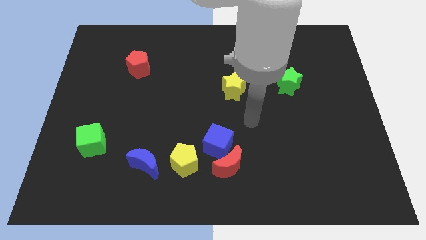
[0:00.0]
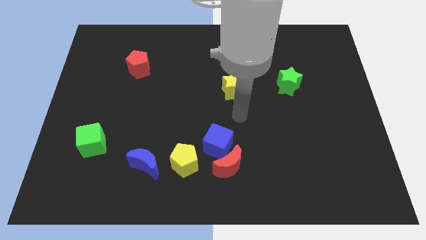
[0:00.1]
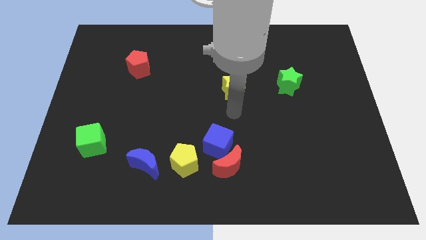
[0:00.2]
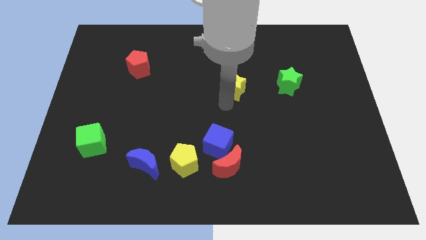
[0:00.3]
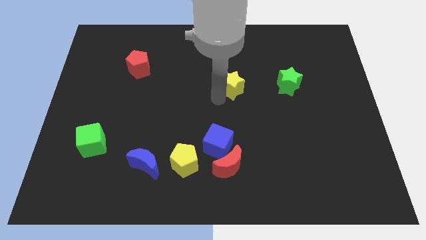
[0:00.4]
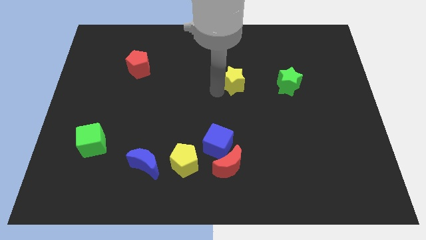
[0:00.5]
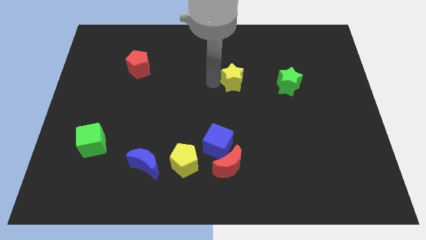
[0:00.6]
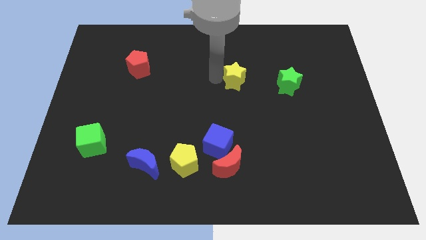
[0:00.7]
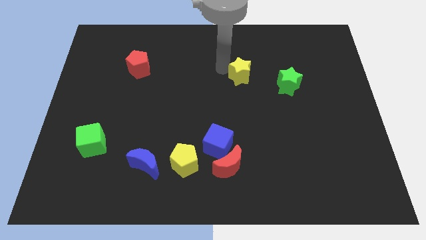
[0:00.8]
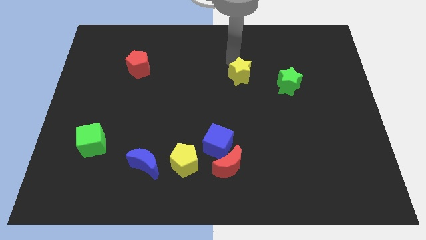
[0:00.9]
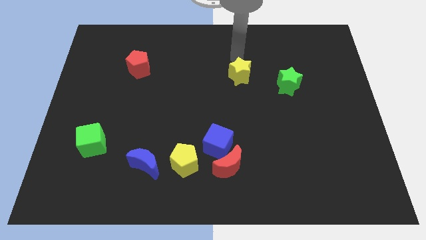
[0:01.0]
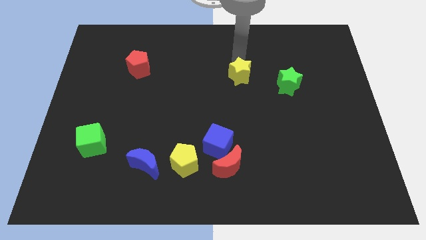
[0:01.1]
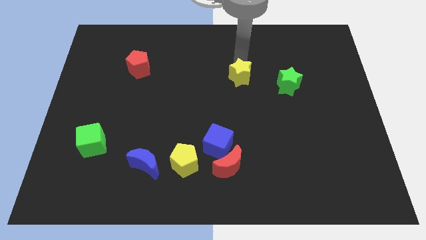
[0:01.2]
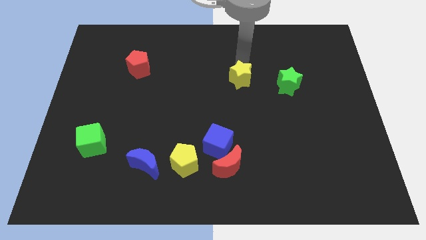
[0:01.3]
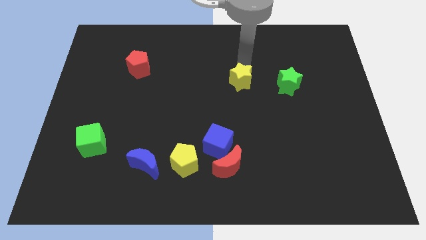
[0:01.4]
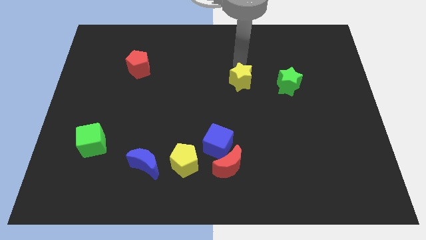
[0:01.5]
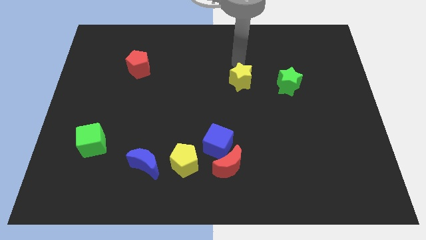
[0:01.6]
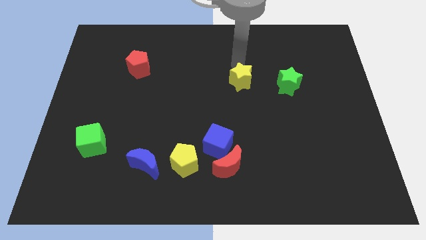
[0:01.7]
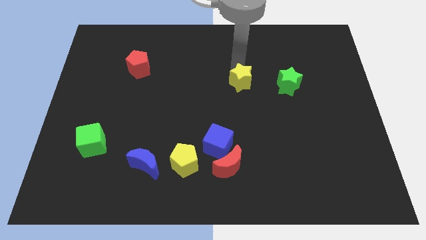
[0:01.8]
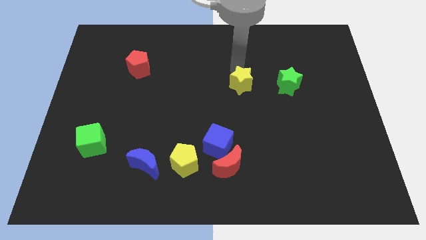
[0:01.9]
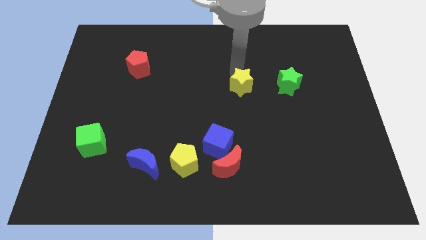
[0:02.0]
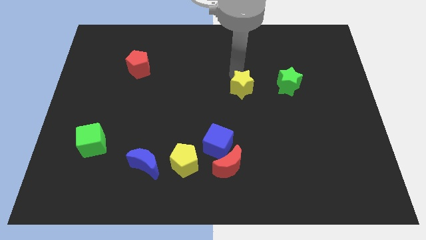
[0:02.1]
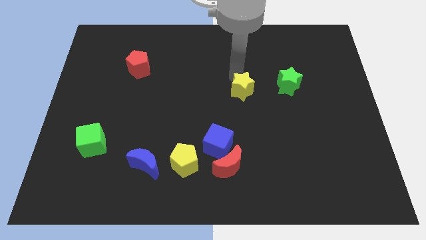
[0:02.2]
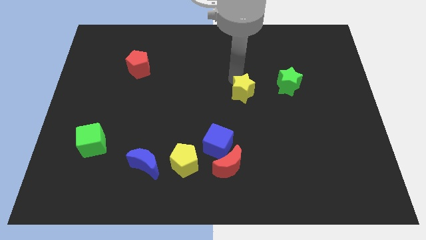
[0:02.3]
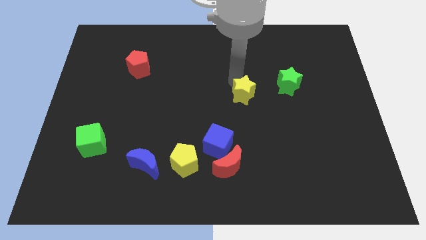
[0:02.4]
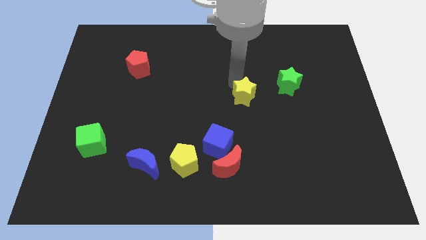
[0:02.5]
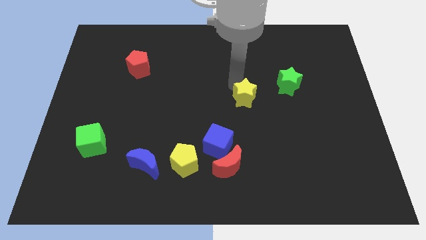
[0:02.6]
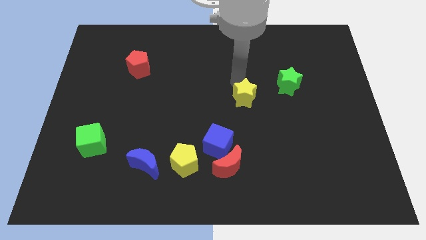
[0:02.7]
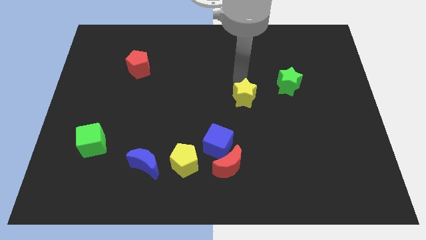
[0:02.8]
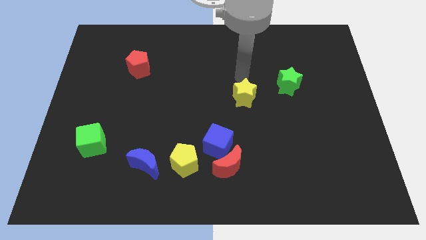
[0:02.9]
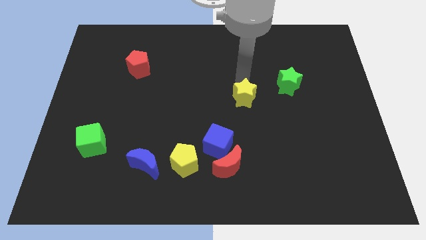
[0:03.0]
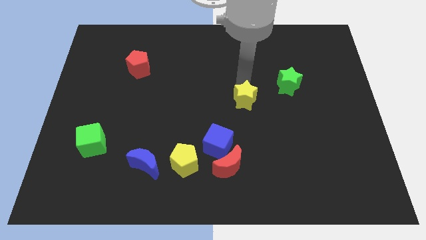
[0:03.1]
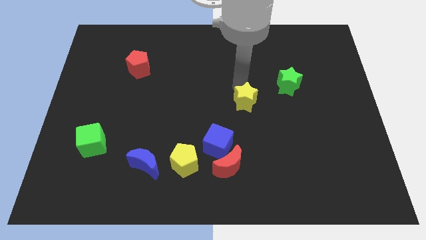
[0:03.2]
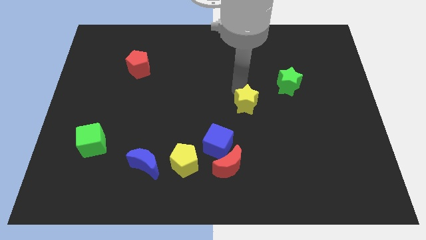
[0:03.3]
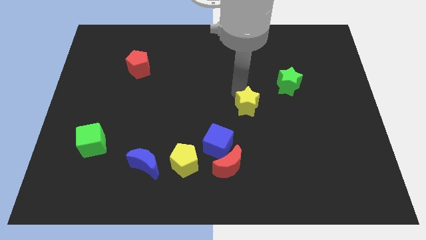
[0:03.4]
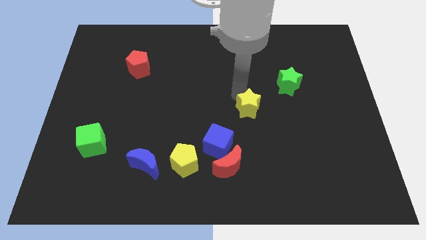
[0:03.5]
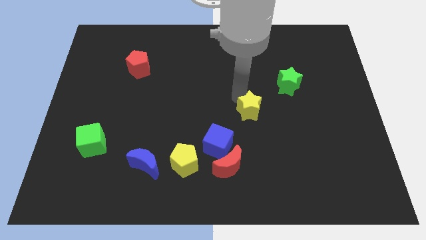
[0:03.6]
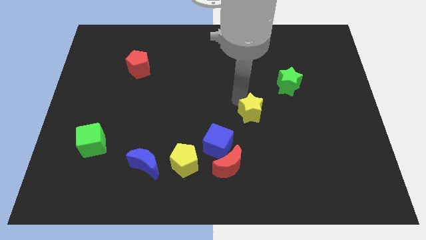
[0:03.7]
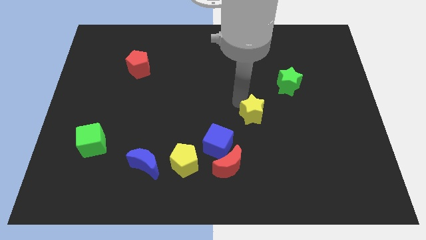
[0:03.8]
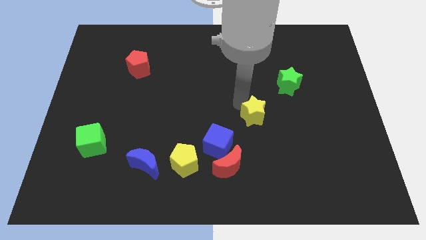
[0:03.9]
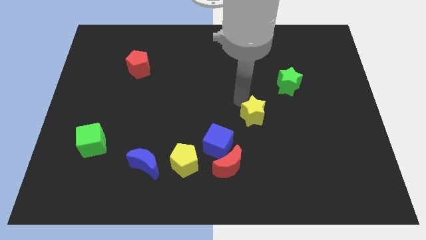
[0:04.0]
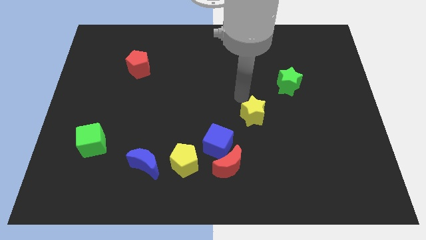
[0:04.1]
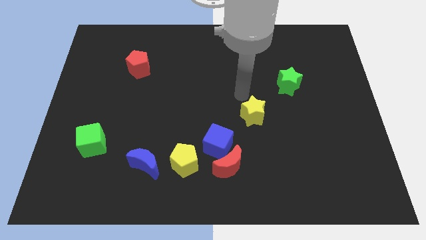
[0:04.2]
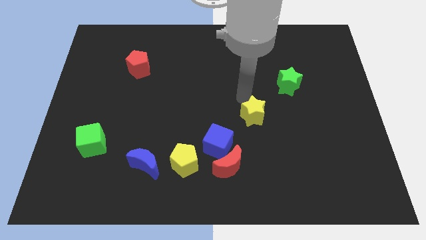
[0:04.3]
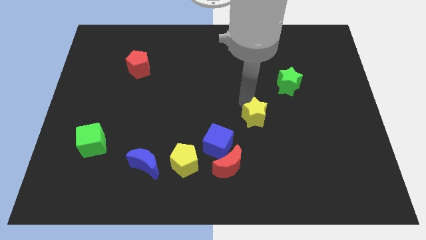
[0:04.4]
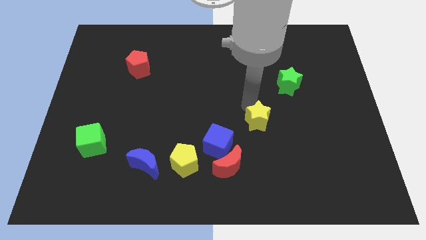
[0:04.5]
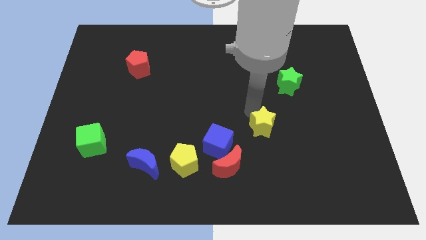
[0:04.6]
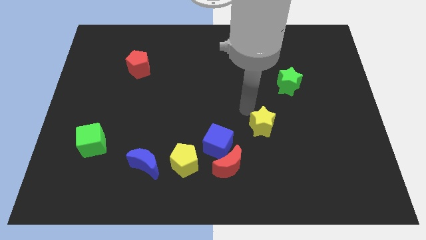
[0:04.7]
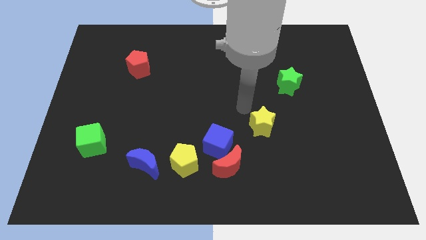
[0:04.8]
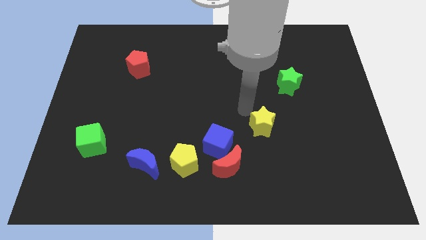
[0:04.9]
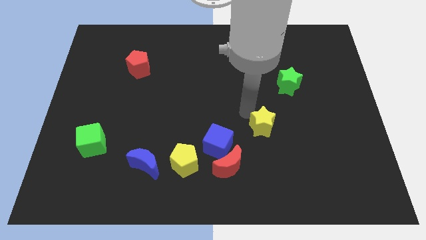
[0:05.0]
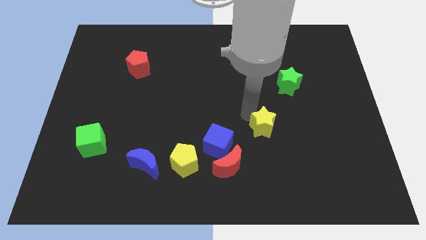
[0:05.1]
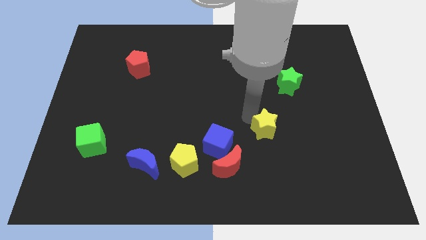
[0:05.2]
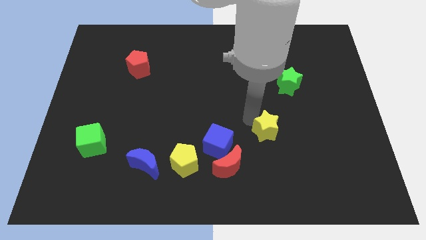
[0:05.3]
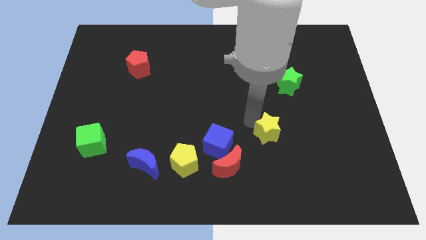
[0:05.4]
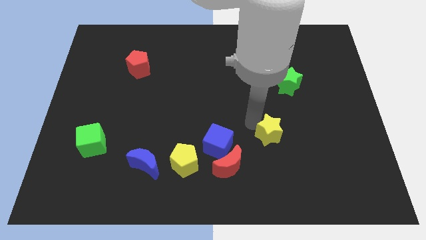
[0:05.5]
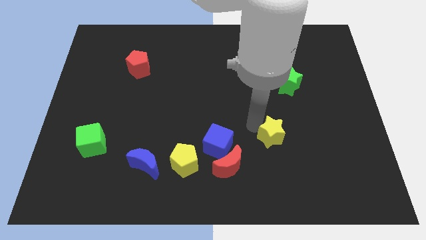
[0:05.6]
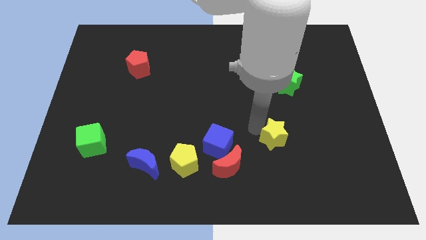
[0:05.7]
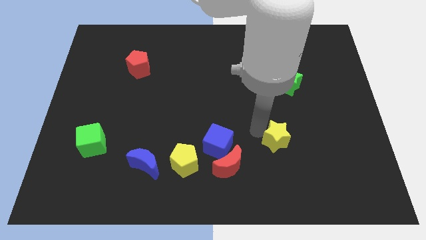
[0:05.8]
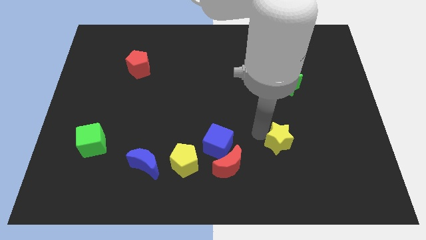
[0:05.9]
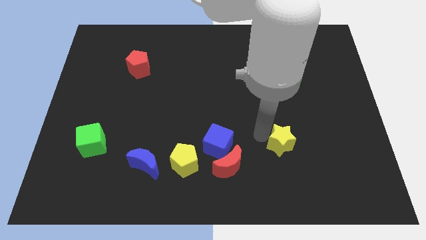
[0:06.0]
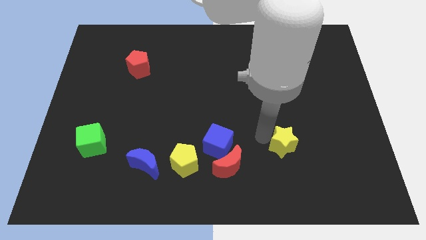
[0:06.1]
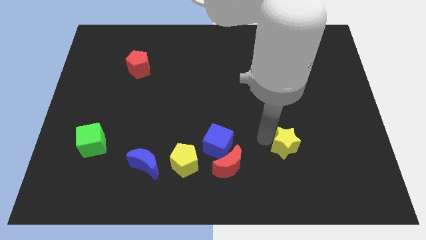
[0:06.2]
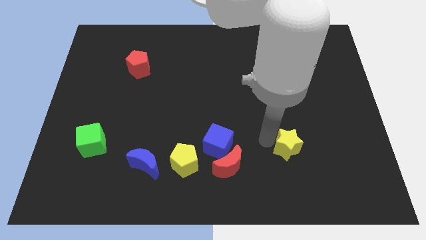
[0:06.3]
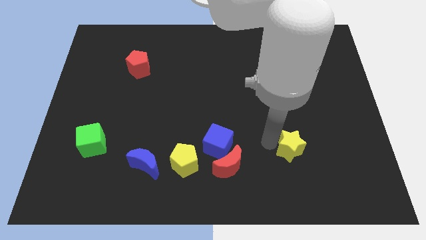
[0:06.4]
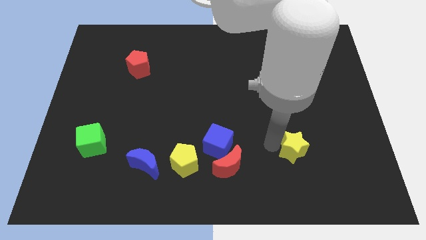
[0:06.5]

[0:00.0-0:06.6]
push the yellow star diagonally downwards and to the right

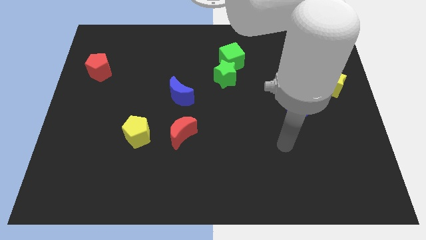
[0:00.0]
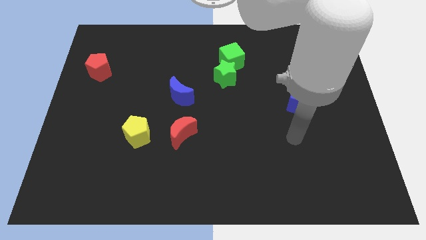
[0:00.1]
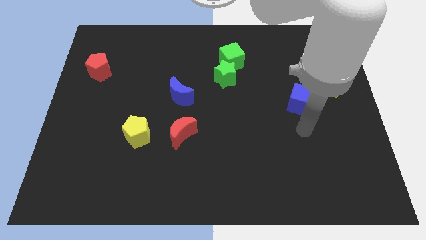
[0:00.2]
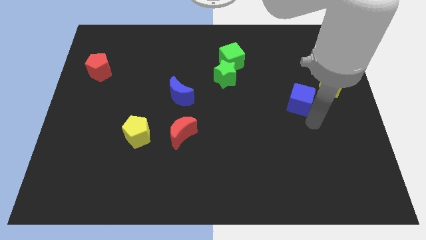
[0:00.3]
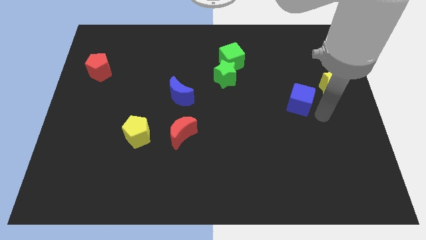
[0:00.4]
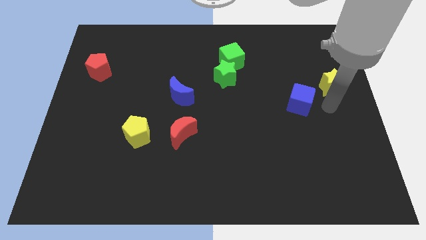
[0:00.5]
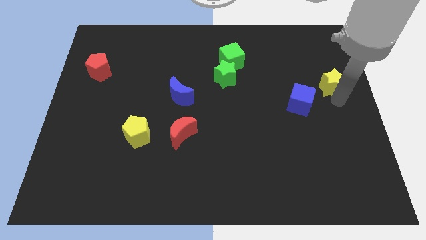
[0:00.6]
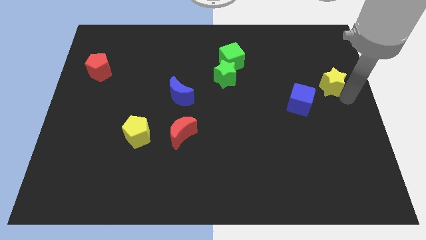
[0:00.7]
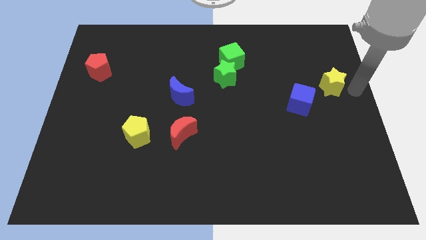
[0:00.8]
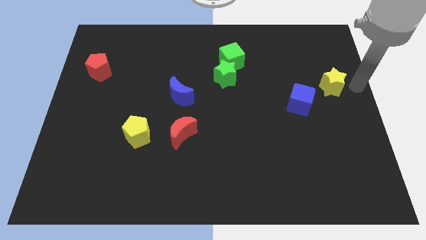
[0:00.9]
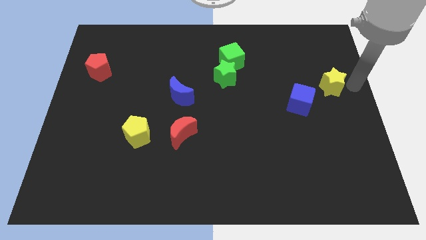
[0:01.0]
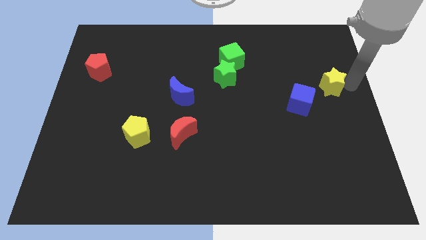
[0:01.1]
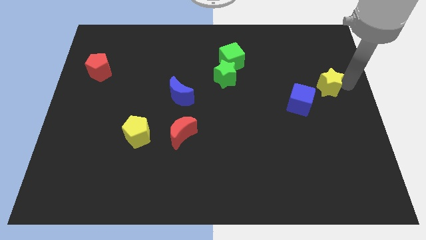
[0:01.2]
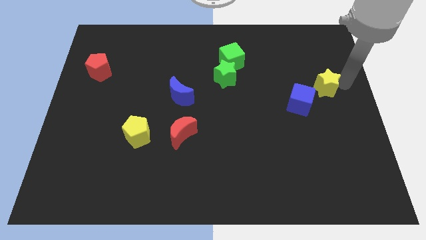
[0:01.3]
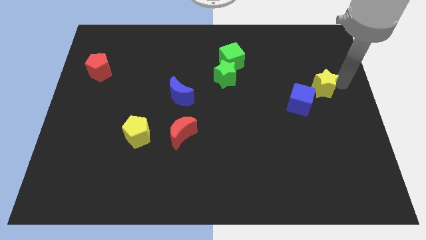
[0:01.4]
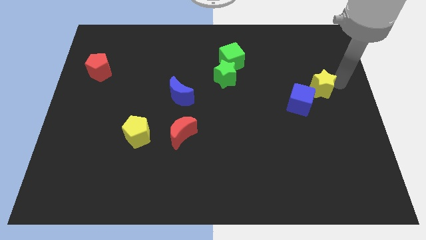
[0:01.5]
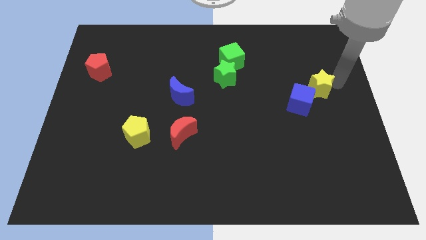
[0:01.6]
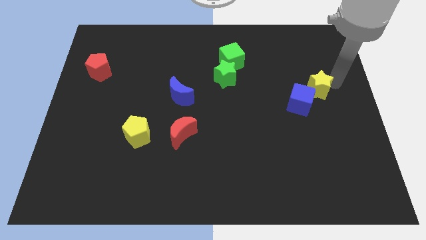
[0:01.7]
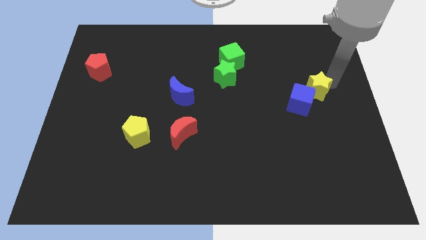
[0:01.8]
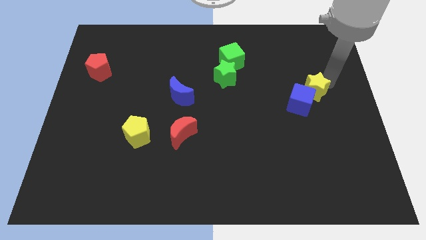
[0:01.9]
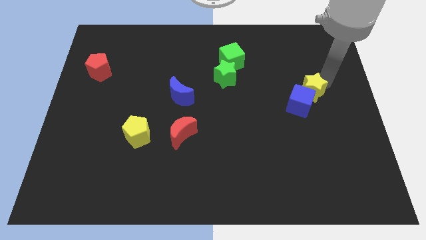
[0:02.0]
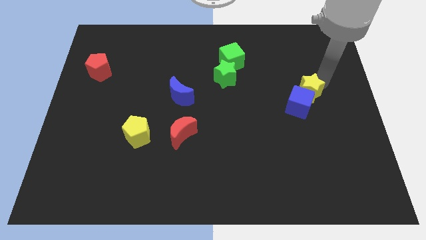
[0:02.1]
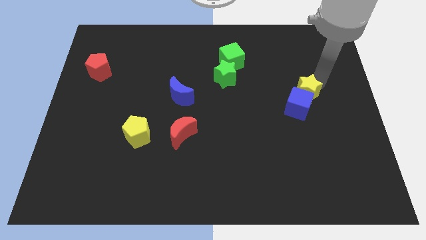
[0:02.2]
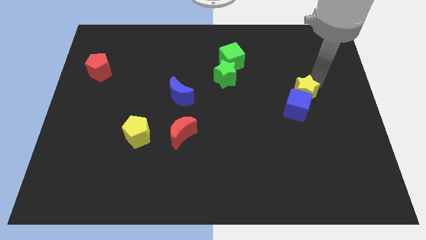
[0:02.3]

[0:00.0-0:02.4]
push the yellow star to the left a bit
